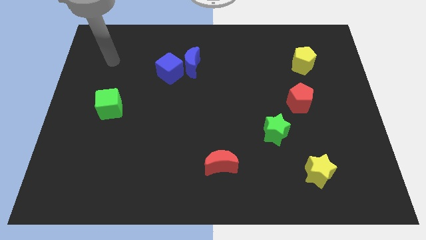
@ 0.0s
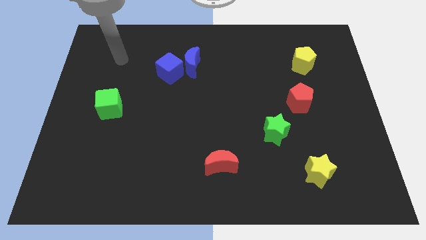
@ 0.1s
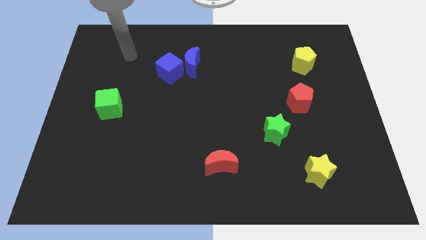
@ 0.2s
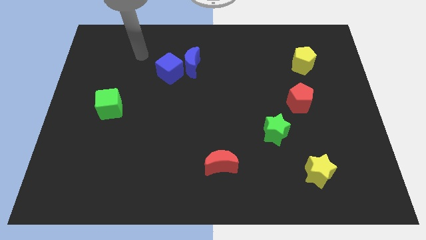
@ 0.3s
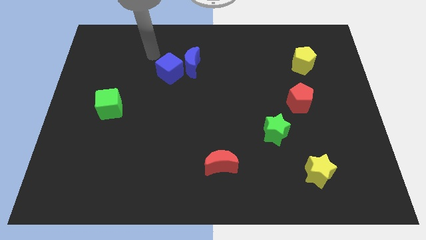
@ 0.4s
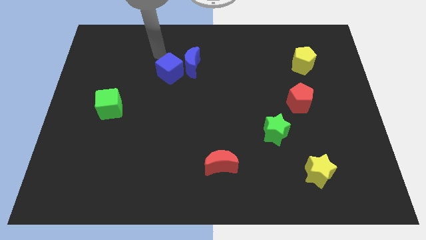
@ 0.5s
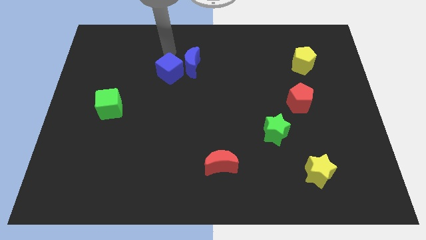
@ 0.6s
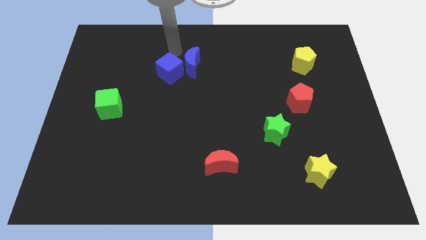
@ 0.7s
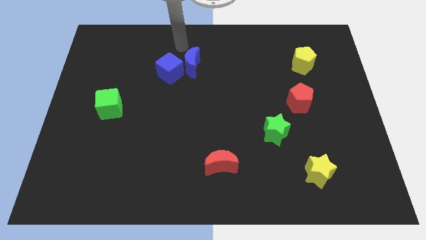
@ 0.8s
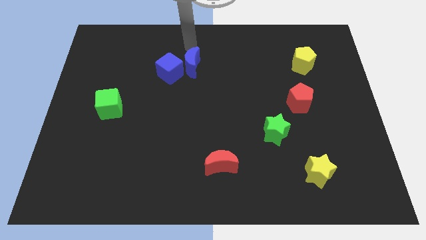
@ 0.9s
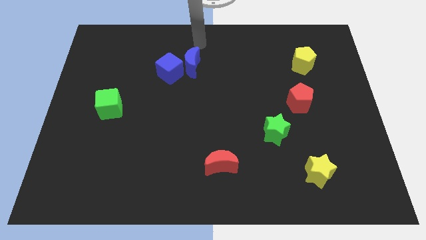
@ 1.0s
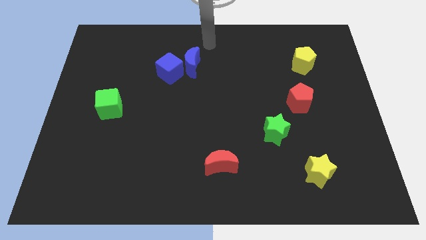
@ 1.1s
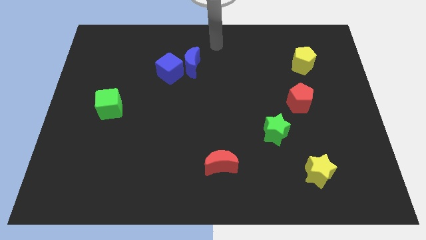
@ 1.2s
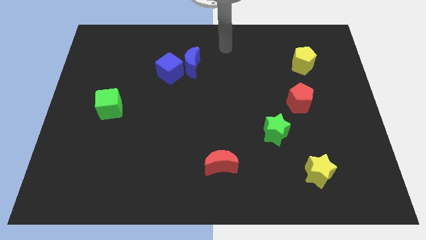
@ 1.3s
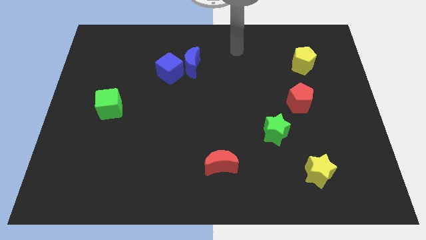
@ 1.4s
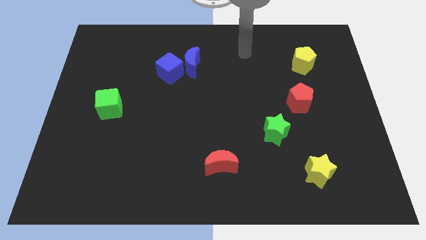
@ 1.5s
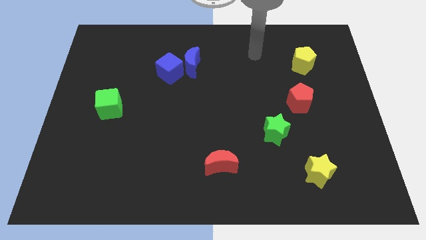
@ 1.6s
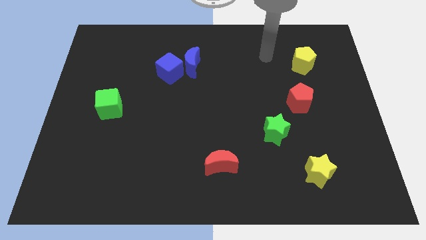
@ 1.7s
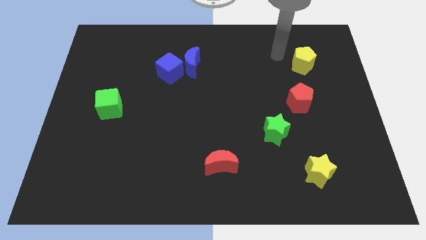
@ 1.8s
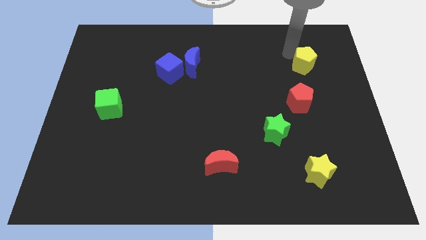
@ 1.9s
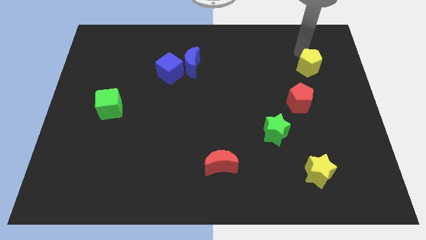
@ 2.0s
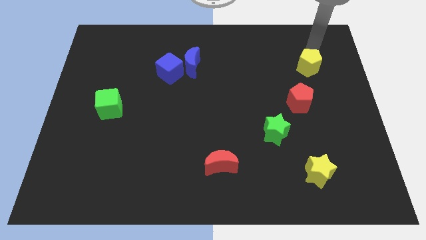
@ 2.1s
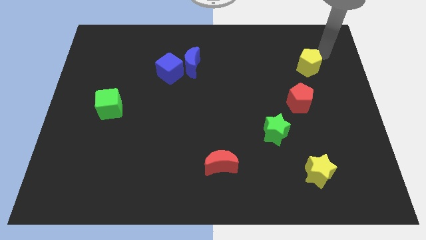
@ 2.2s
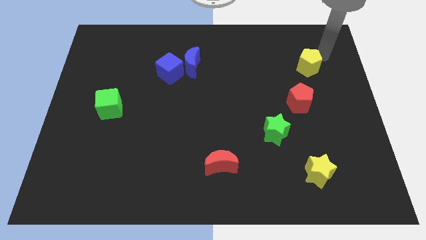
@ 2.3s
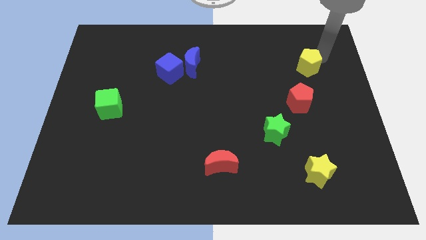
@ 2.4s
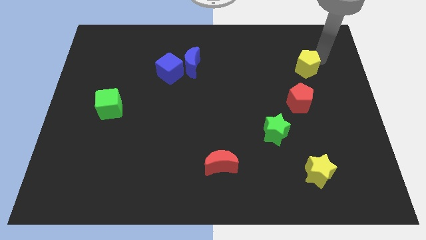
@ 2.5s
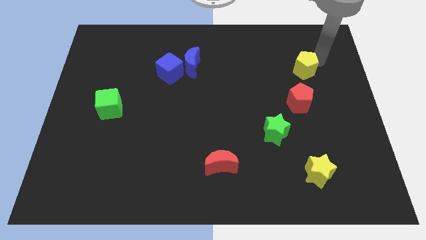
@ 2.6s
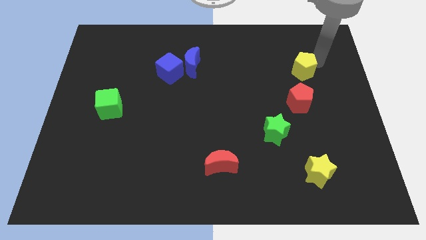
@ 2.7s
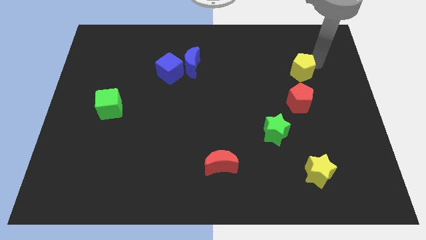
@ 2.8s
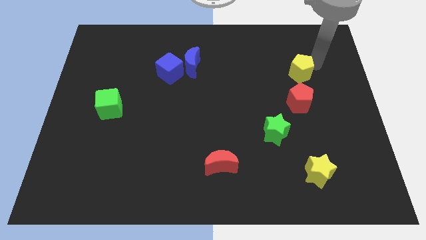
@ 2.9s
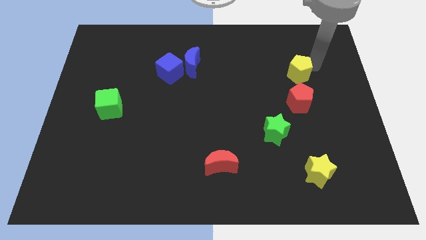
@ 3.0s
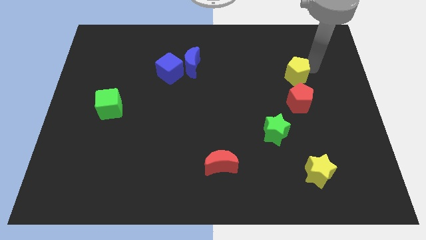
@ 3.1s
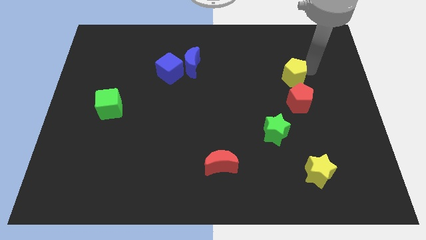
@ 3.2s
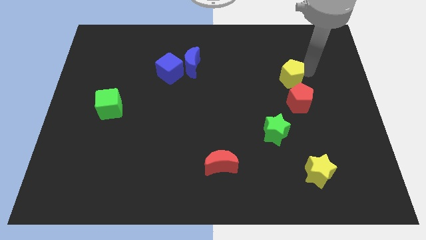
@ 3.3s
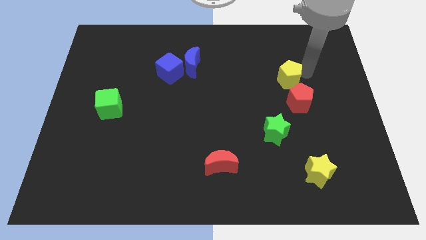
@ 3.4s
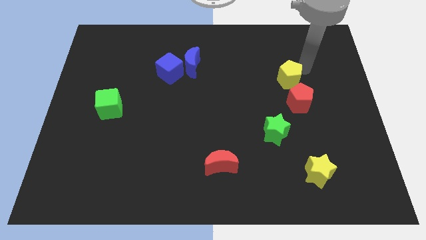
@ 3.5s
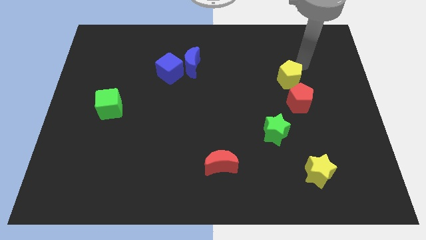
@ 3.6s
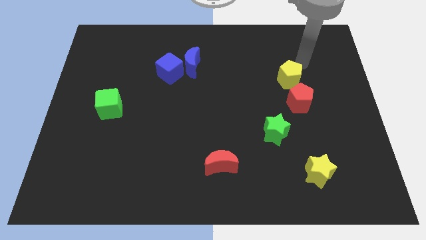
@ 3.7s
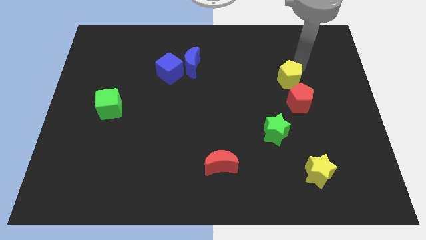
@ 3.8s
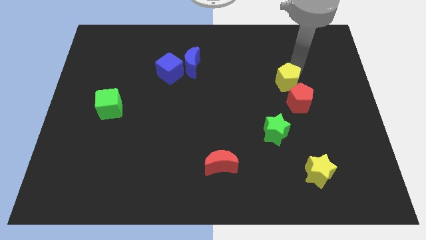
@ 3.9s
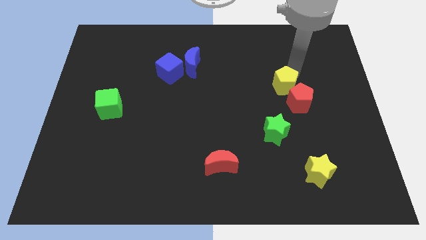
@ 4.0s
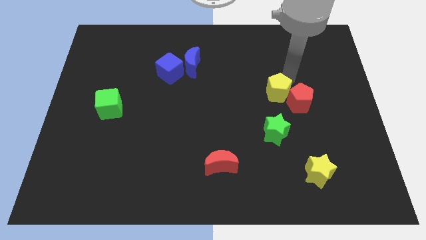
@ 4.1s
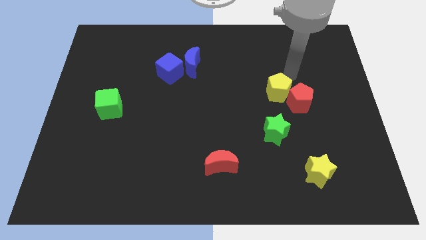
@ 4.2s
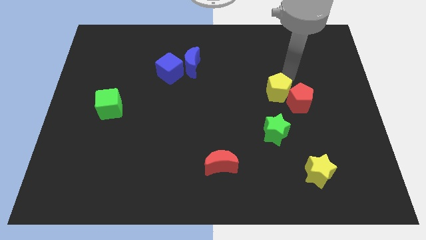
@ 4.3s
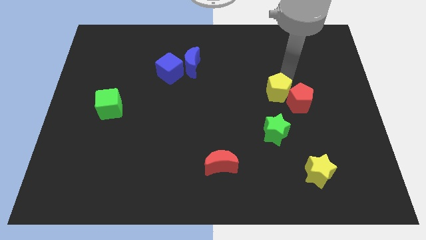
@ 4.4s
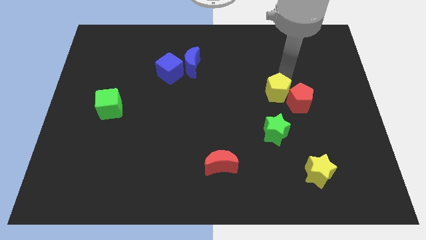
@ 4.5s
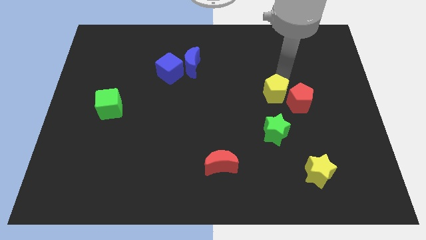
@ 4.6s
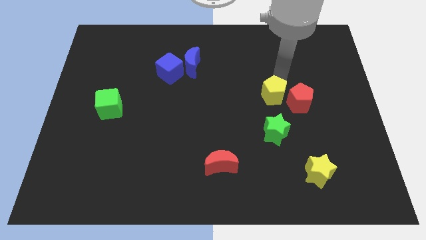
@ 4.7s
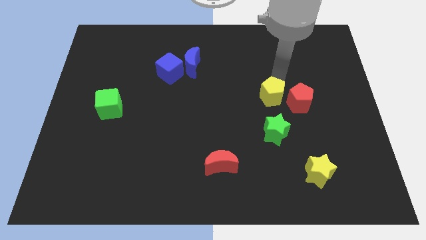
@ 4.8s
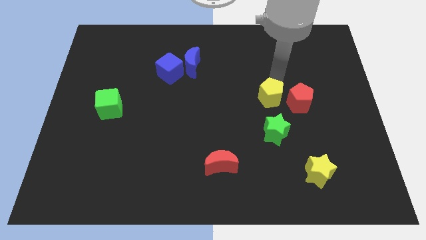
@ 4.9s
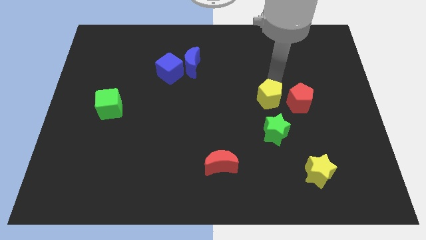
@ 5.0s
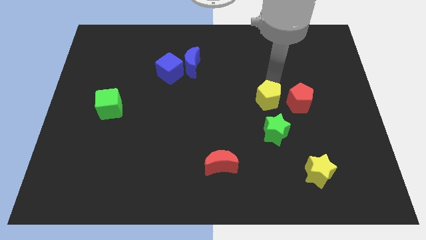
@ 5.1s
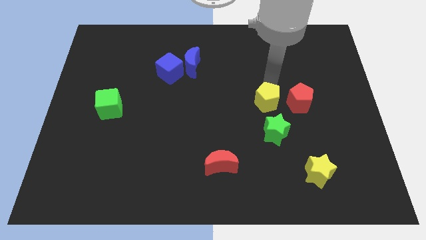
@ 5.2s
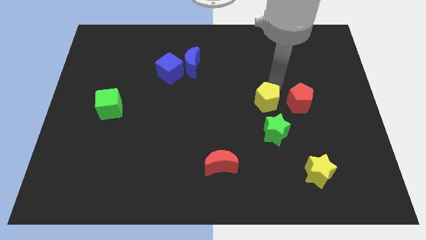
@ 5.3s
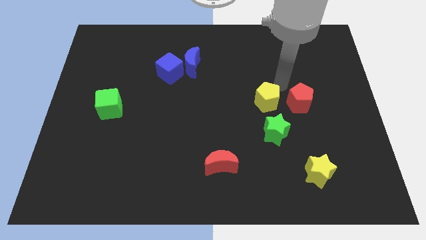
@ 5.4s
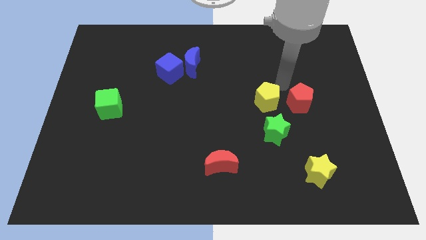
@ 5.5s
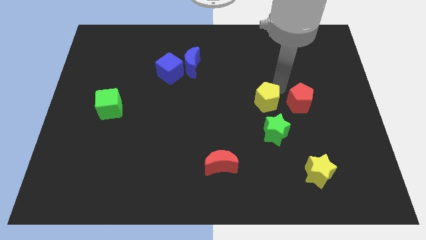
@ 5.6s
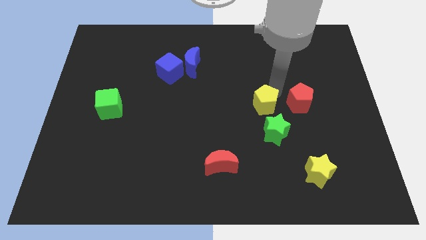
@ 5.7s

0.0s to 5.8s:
move the yellow pentagon diagonally up and to the left of the green star

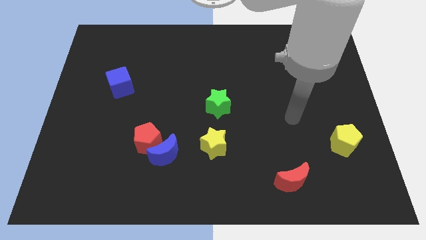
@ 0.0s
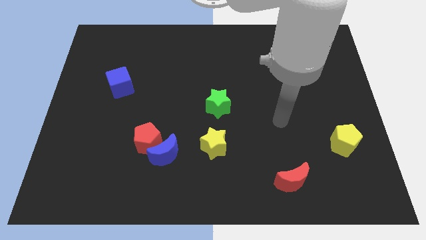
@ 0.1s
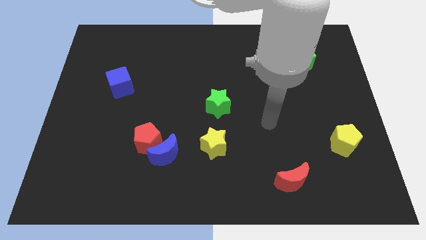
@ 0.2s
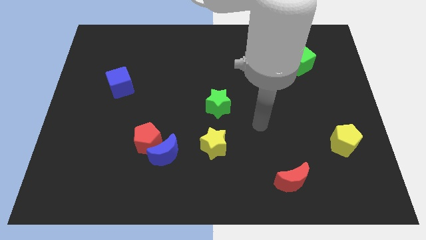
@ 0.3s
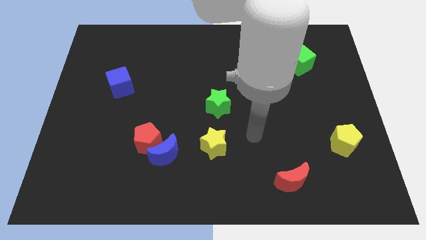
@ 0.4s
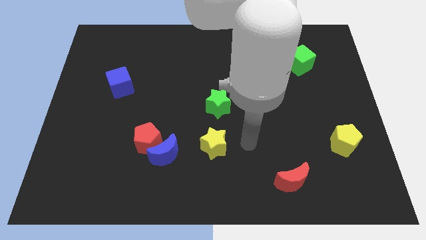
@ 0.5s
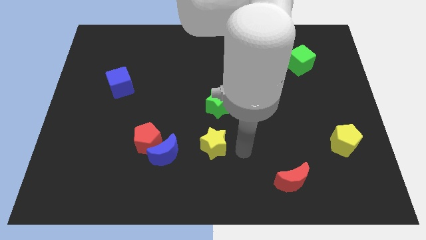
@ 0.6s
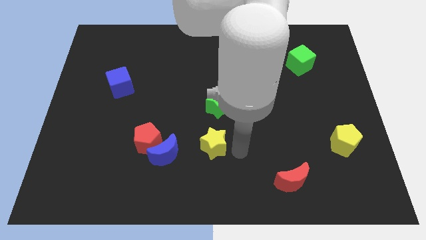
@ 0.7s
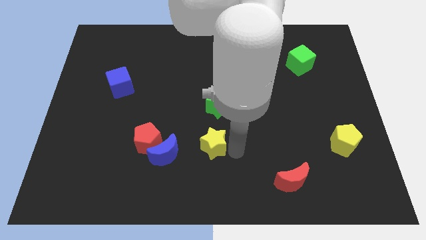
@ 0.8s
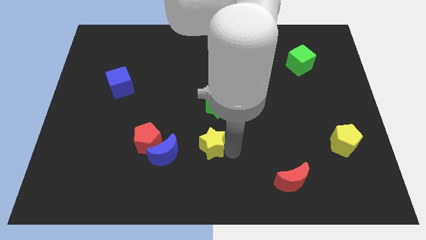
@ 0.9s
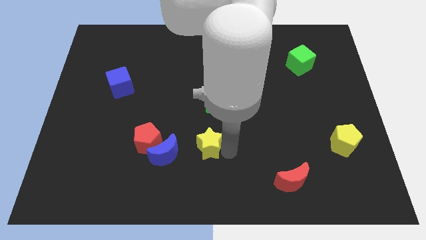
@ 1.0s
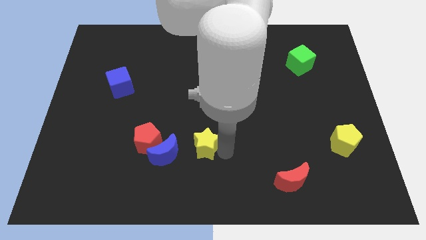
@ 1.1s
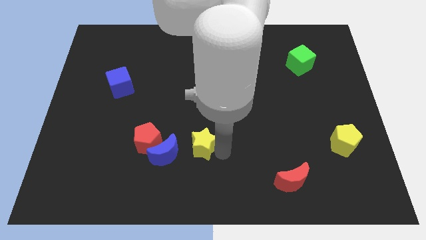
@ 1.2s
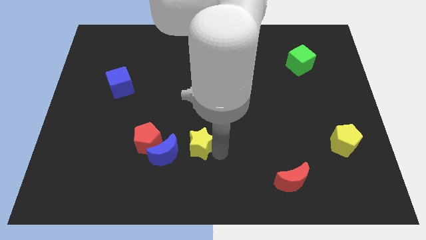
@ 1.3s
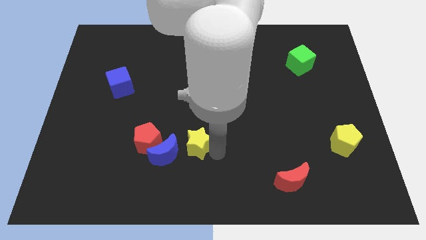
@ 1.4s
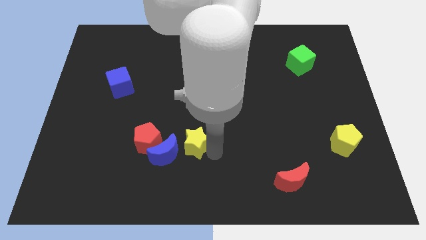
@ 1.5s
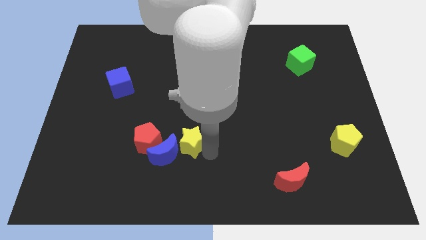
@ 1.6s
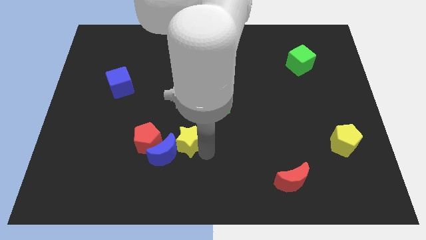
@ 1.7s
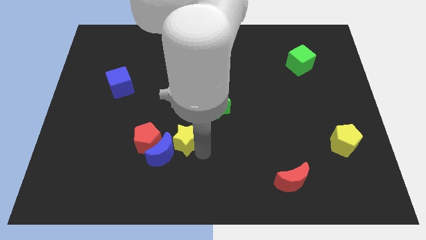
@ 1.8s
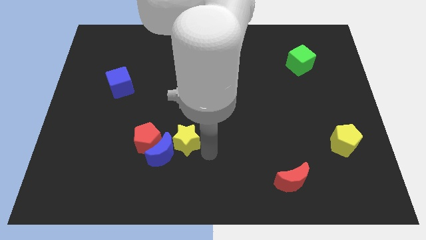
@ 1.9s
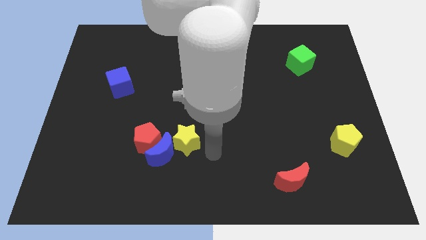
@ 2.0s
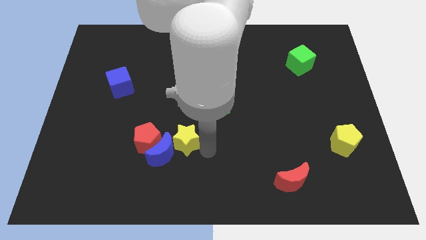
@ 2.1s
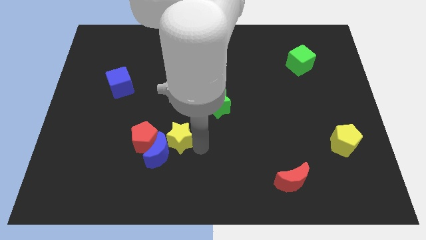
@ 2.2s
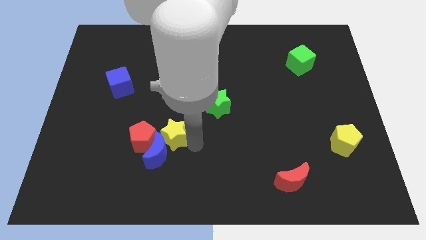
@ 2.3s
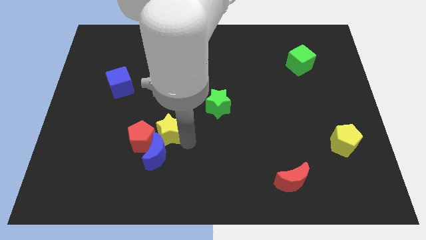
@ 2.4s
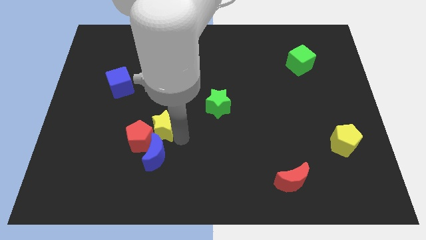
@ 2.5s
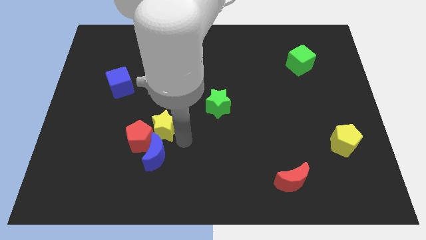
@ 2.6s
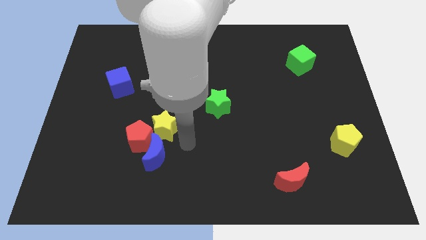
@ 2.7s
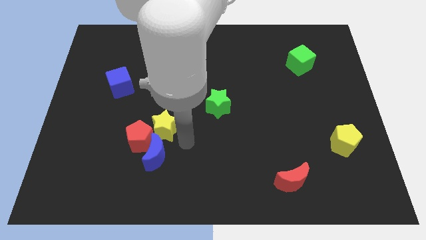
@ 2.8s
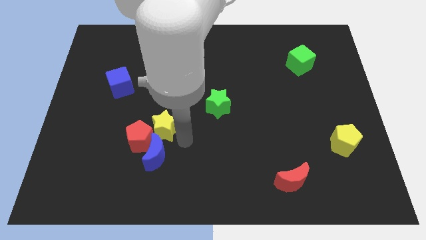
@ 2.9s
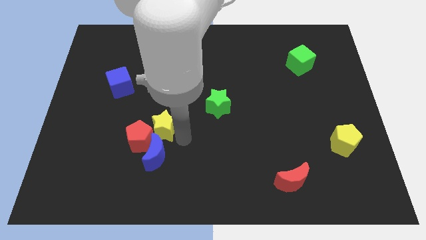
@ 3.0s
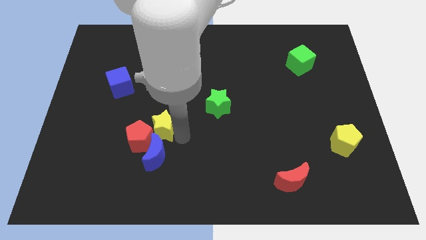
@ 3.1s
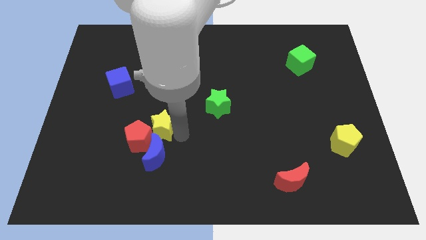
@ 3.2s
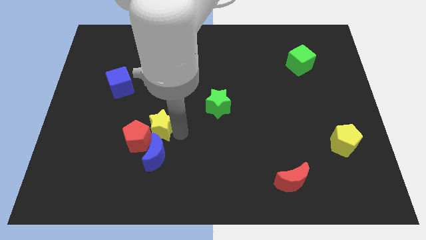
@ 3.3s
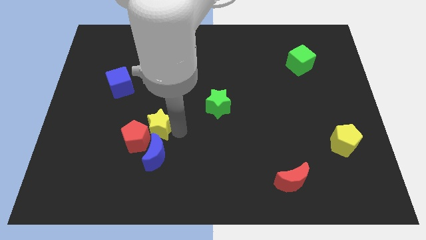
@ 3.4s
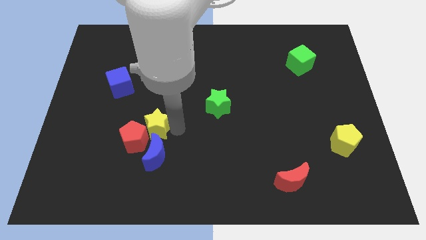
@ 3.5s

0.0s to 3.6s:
push the yellow star to the top left of the blue moon
